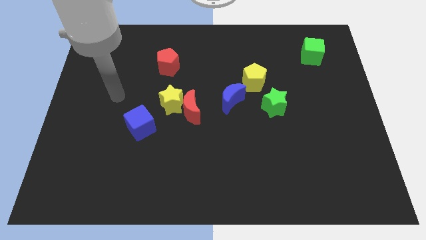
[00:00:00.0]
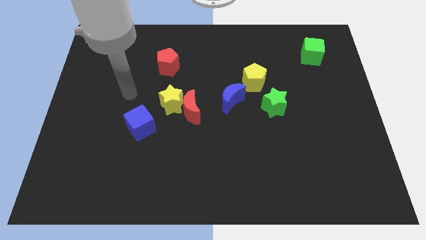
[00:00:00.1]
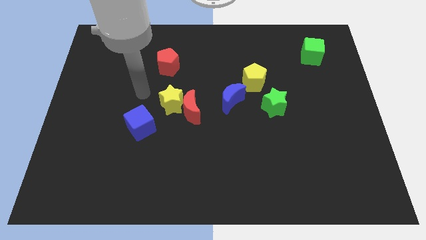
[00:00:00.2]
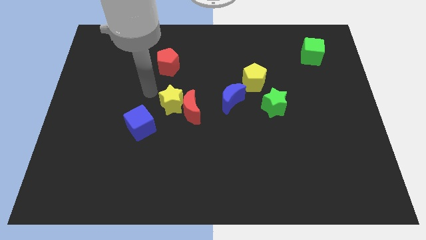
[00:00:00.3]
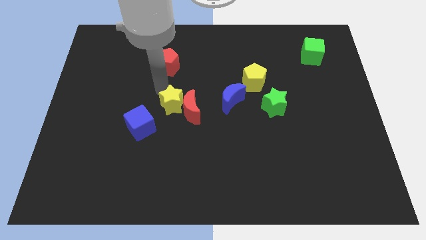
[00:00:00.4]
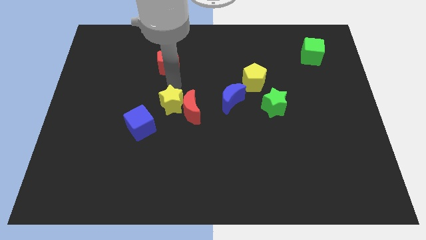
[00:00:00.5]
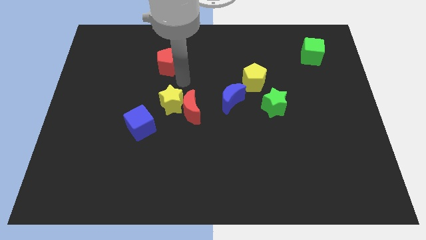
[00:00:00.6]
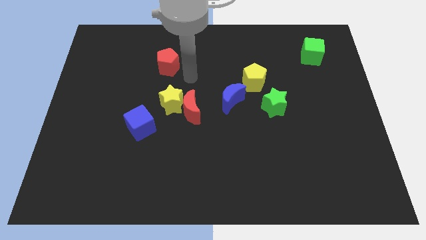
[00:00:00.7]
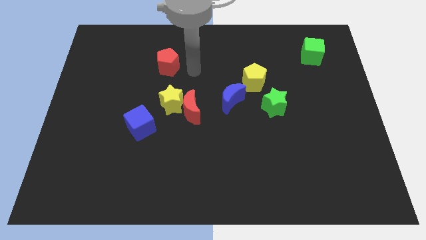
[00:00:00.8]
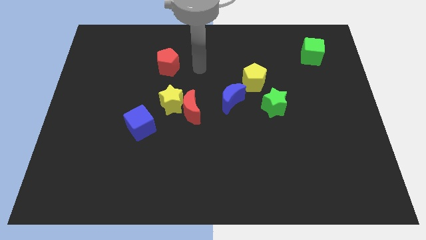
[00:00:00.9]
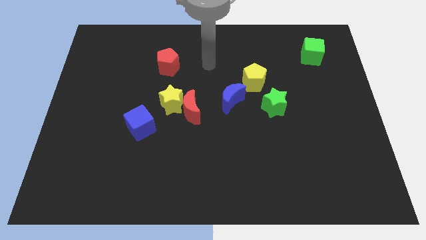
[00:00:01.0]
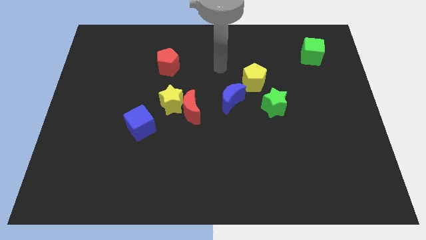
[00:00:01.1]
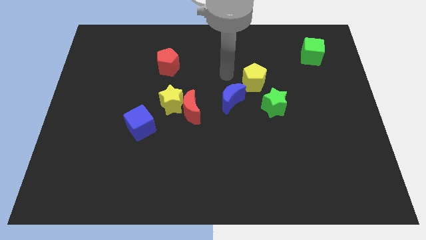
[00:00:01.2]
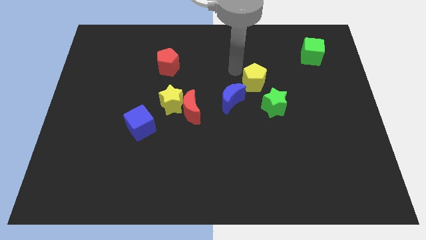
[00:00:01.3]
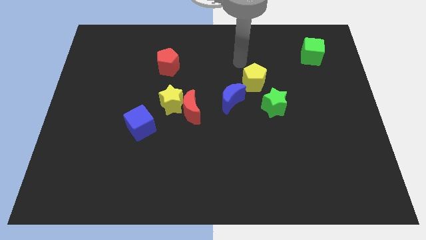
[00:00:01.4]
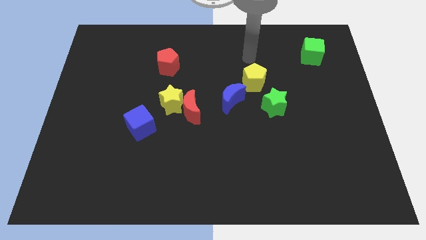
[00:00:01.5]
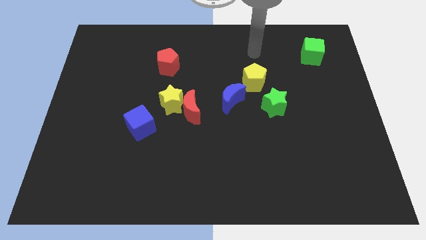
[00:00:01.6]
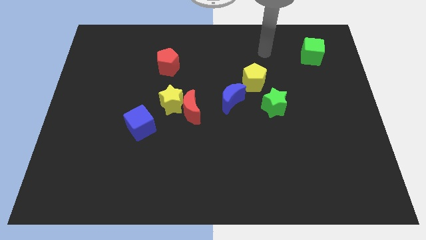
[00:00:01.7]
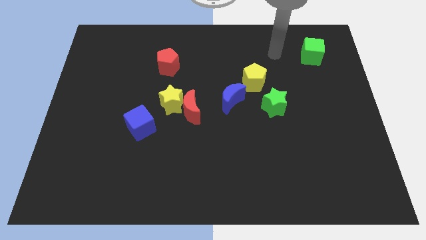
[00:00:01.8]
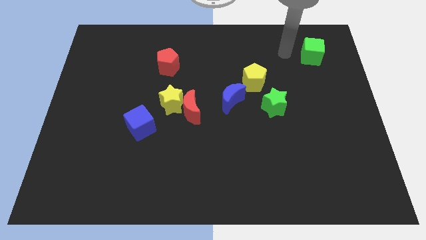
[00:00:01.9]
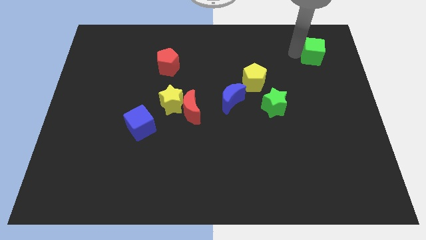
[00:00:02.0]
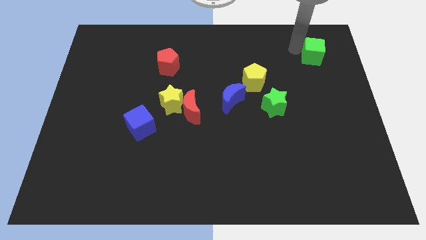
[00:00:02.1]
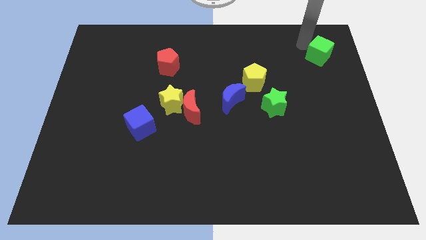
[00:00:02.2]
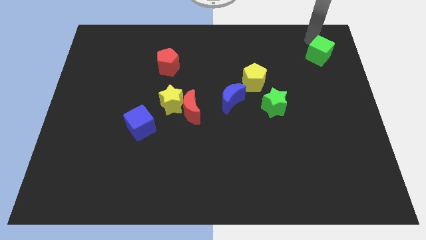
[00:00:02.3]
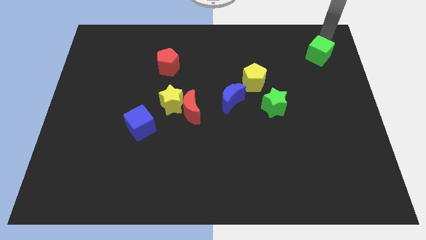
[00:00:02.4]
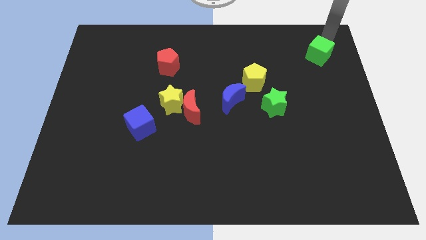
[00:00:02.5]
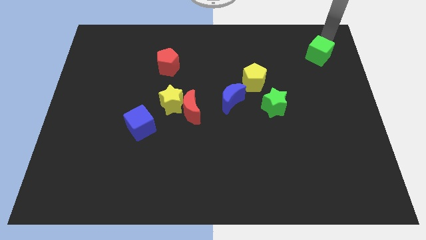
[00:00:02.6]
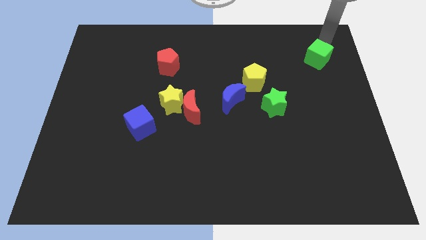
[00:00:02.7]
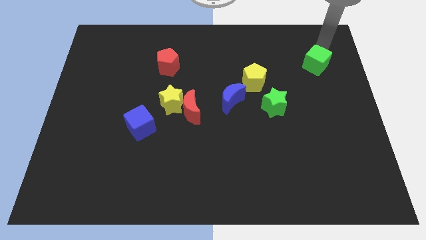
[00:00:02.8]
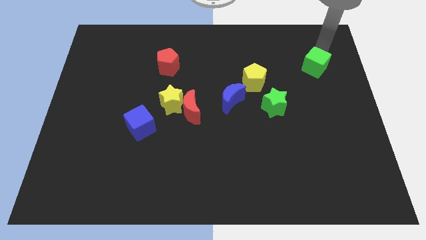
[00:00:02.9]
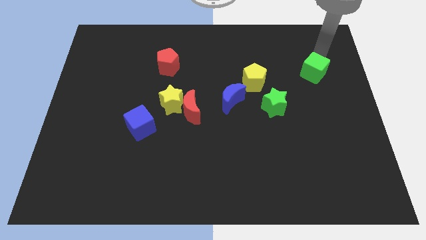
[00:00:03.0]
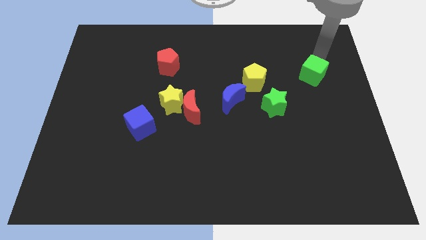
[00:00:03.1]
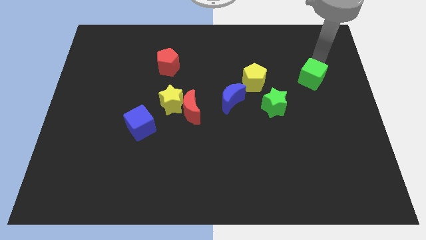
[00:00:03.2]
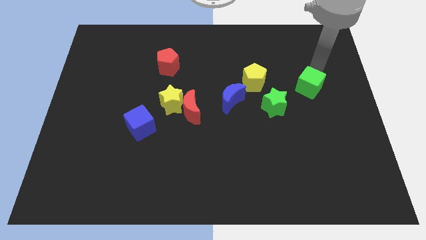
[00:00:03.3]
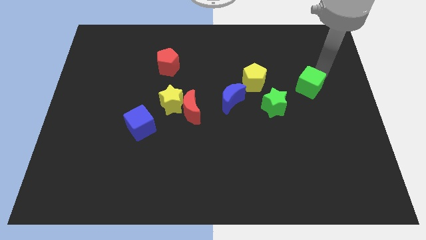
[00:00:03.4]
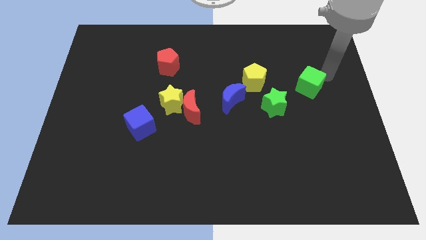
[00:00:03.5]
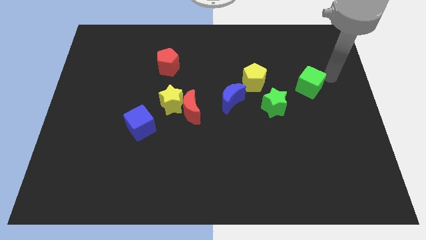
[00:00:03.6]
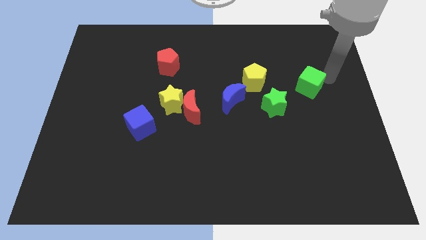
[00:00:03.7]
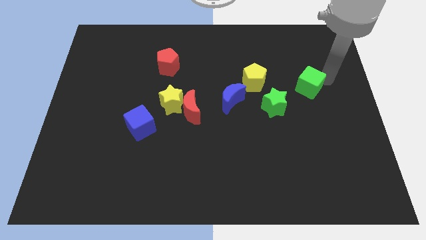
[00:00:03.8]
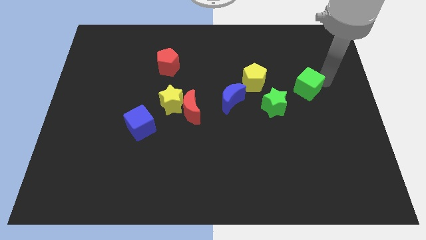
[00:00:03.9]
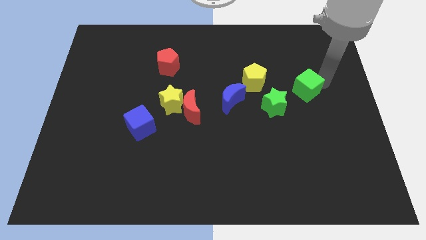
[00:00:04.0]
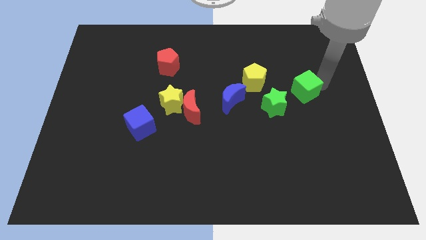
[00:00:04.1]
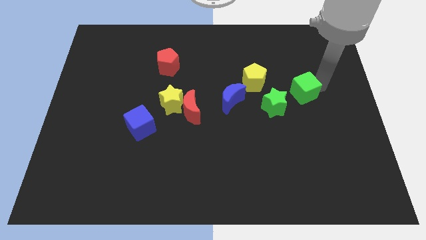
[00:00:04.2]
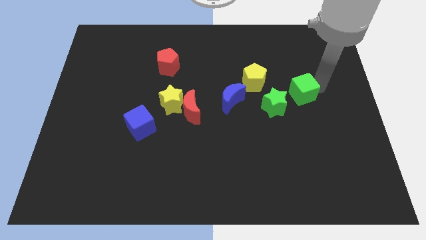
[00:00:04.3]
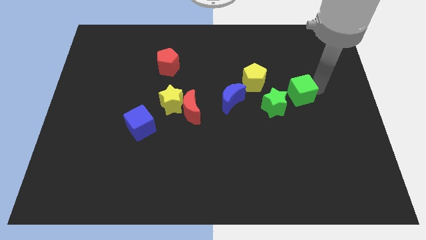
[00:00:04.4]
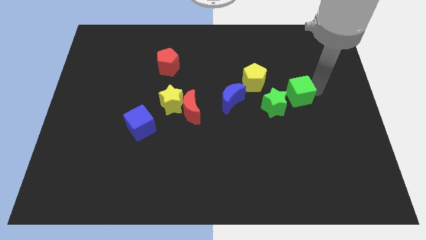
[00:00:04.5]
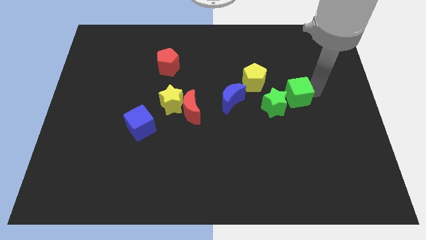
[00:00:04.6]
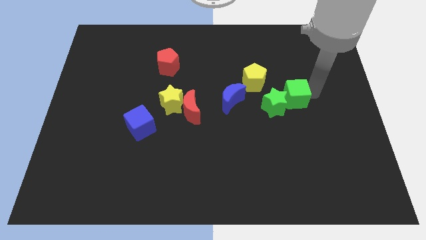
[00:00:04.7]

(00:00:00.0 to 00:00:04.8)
slide the green cube towards the green star

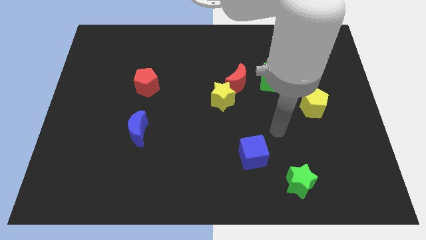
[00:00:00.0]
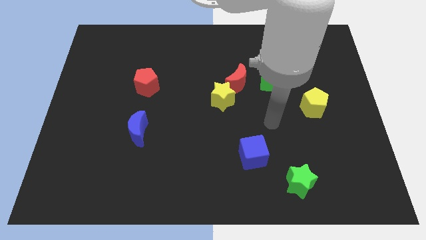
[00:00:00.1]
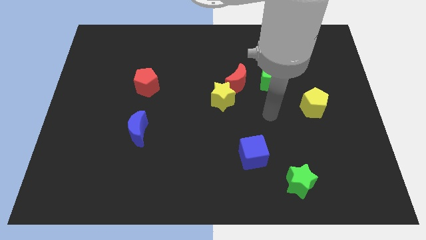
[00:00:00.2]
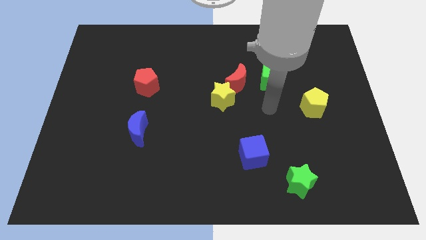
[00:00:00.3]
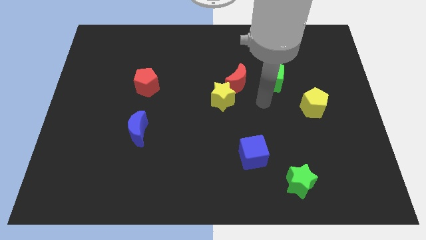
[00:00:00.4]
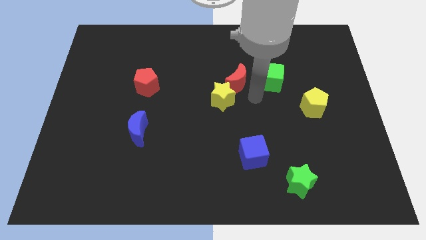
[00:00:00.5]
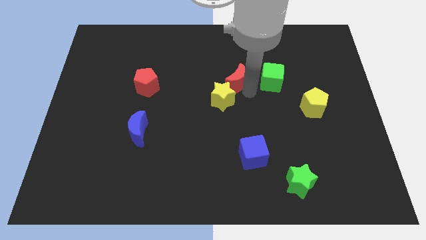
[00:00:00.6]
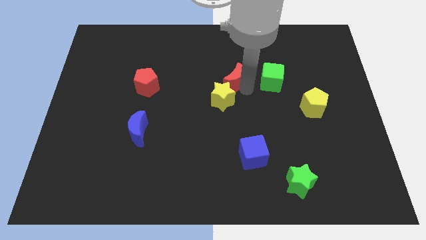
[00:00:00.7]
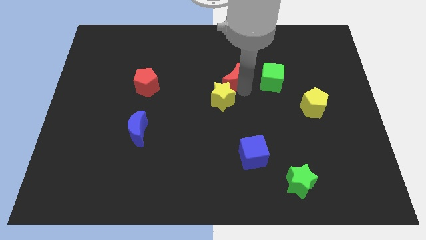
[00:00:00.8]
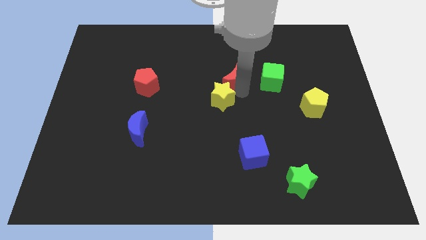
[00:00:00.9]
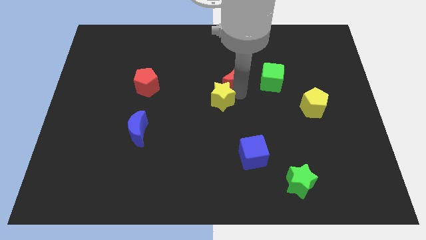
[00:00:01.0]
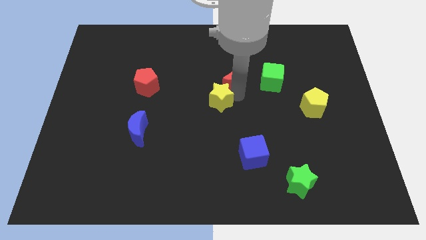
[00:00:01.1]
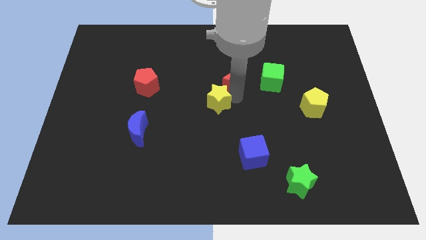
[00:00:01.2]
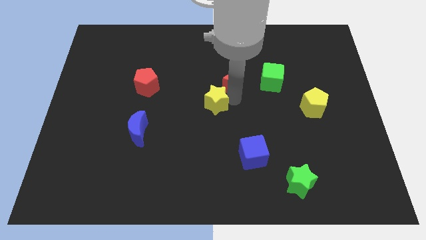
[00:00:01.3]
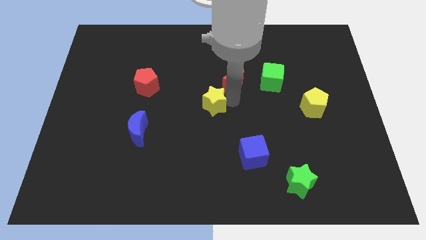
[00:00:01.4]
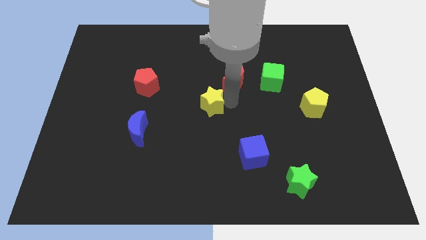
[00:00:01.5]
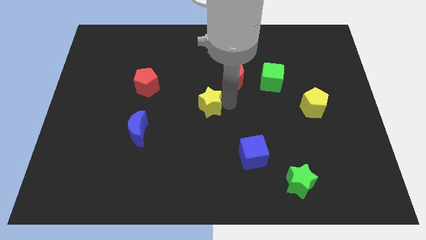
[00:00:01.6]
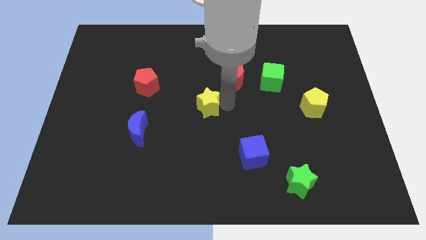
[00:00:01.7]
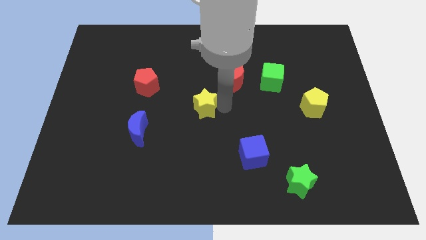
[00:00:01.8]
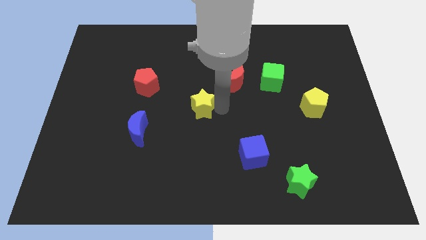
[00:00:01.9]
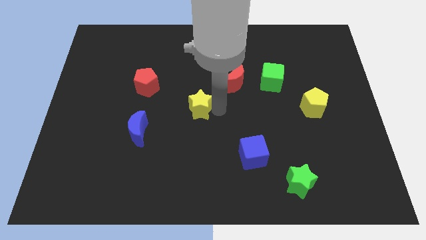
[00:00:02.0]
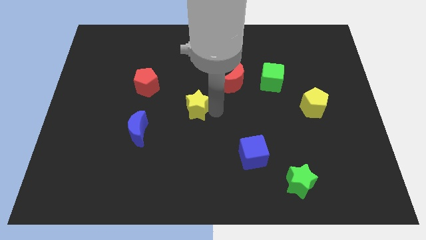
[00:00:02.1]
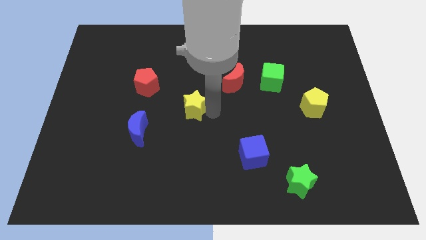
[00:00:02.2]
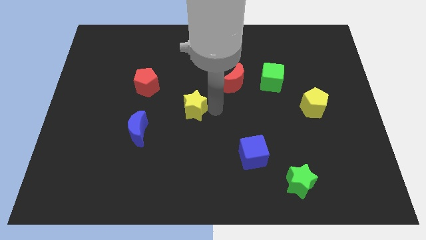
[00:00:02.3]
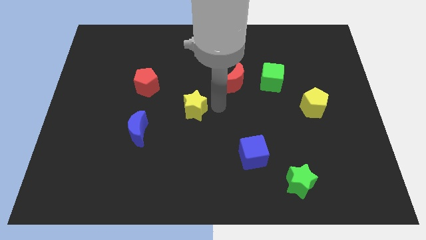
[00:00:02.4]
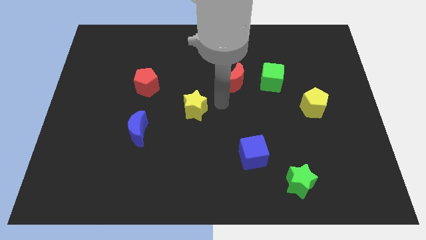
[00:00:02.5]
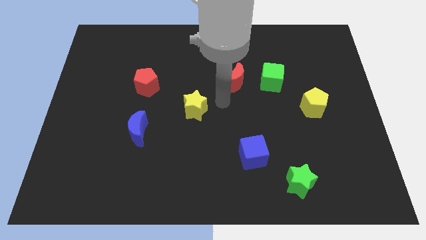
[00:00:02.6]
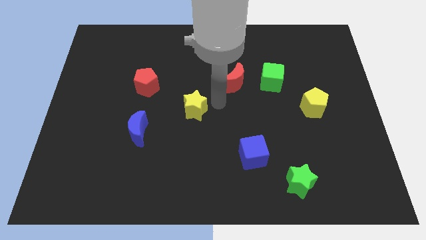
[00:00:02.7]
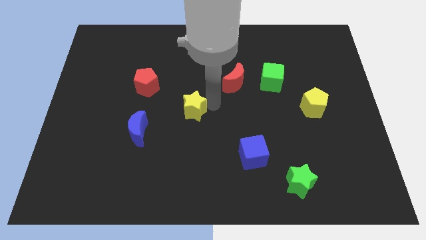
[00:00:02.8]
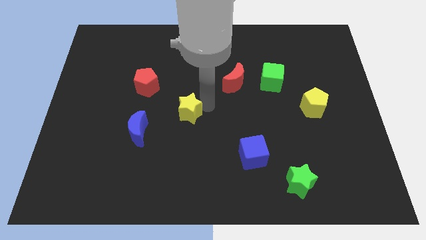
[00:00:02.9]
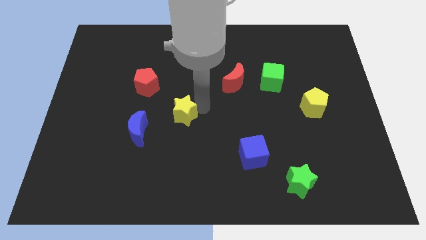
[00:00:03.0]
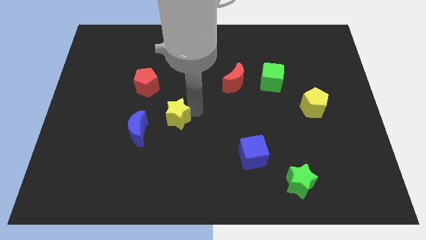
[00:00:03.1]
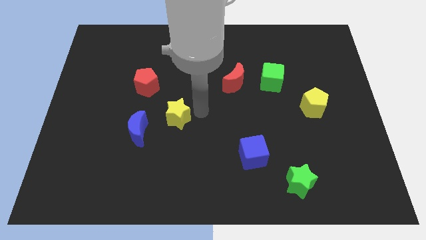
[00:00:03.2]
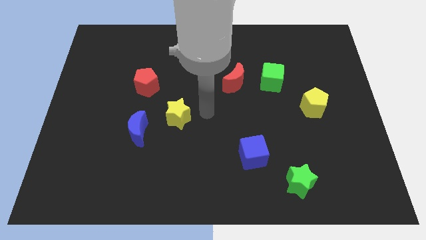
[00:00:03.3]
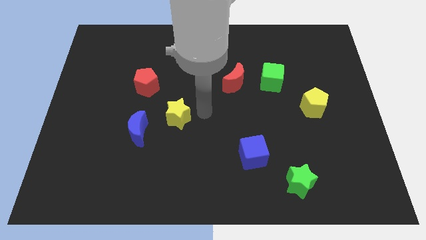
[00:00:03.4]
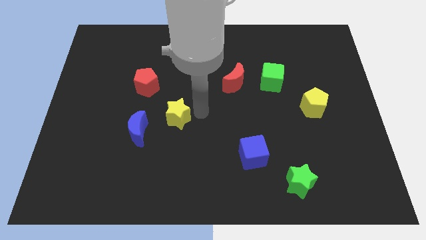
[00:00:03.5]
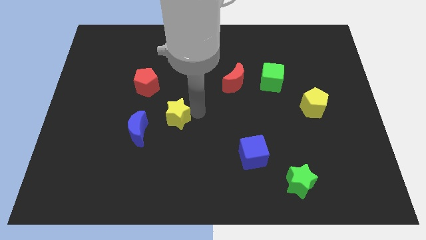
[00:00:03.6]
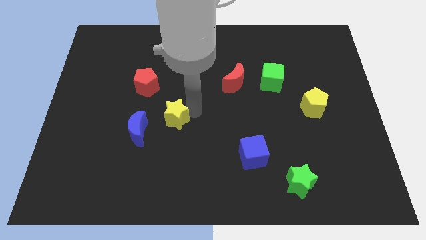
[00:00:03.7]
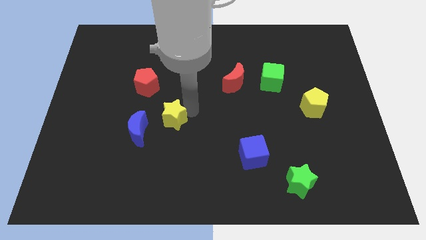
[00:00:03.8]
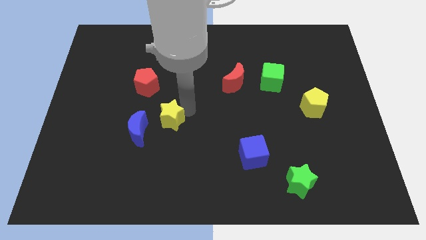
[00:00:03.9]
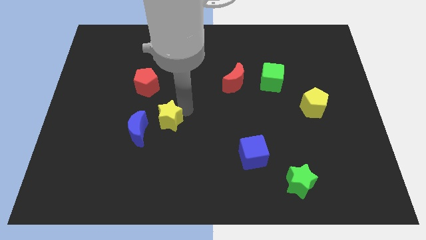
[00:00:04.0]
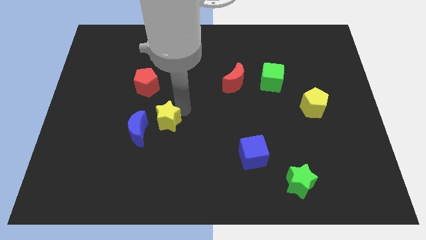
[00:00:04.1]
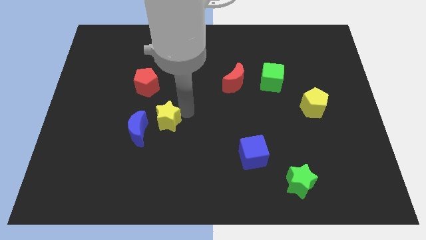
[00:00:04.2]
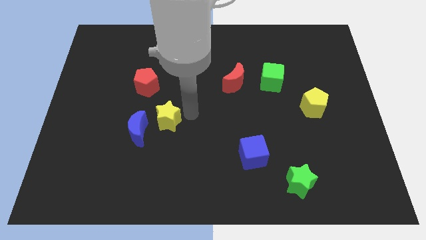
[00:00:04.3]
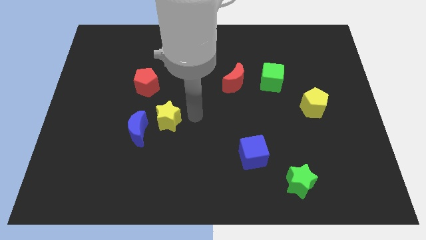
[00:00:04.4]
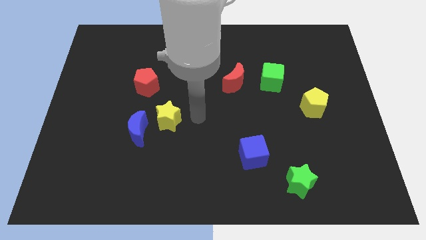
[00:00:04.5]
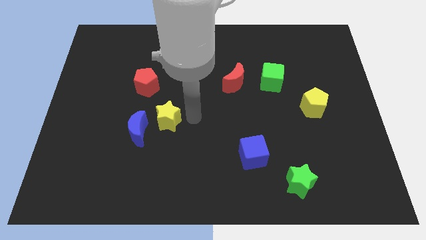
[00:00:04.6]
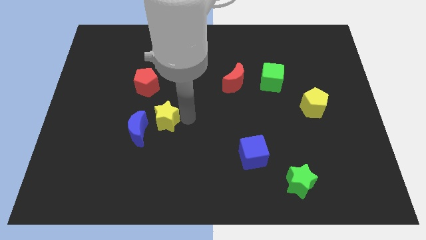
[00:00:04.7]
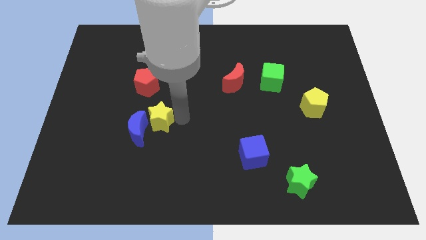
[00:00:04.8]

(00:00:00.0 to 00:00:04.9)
slide the yellow star to the blue moon
